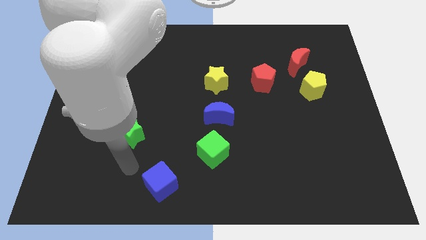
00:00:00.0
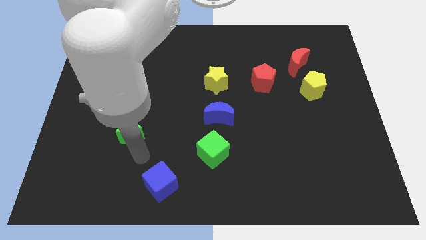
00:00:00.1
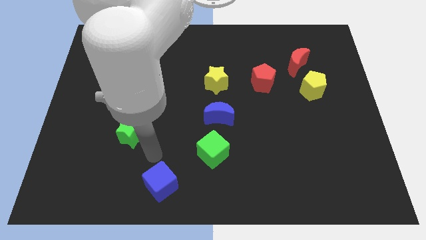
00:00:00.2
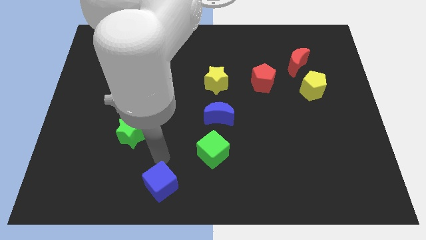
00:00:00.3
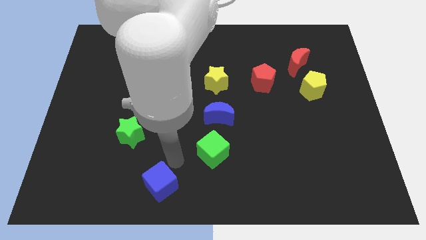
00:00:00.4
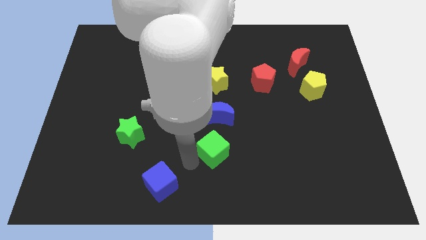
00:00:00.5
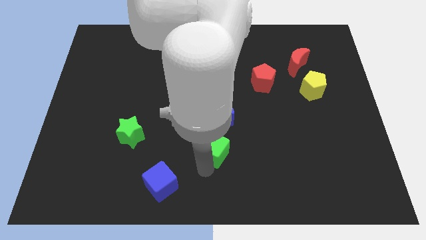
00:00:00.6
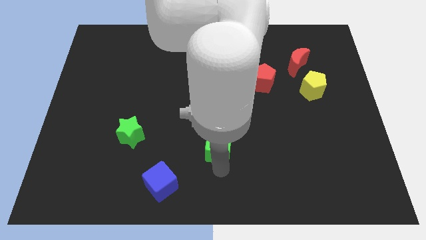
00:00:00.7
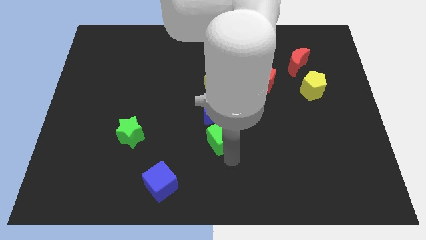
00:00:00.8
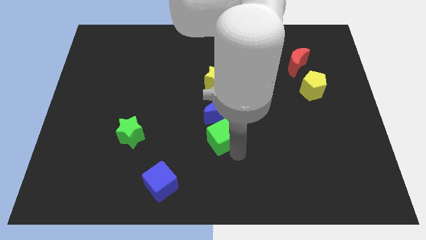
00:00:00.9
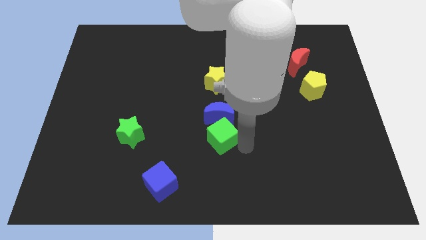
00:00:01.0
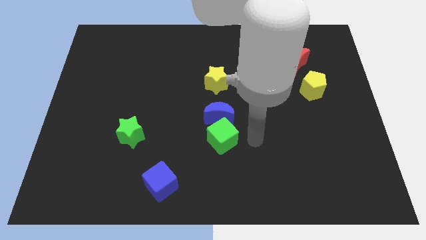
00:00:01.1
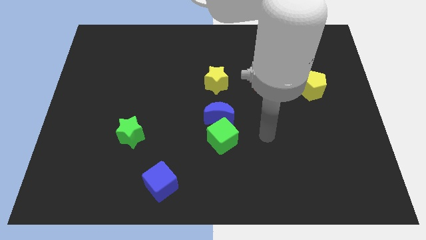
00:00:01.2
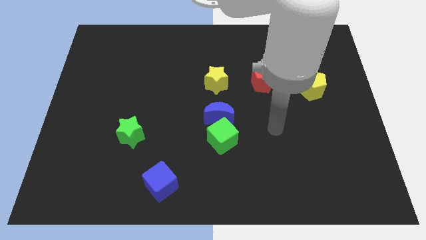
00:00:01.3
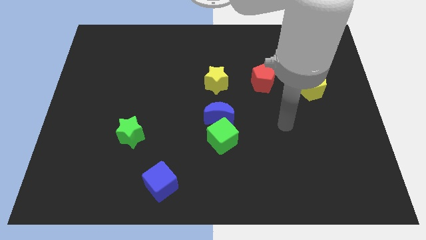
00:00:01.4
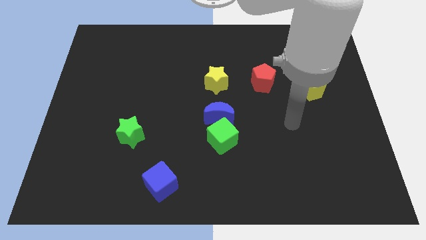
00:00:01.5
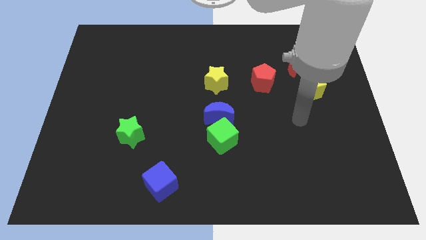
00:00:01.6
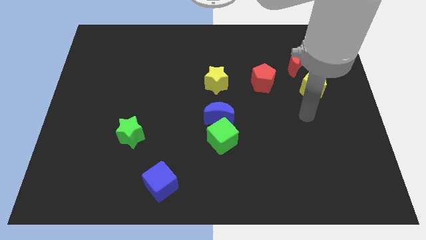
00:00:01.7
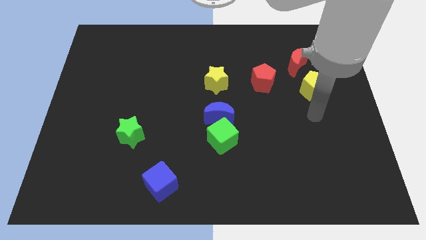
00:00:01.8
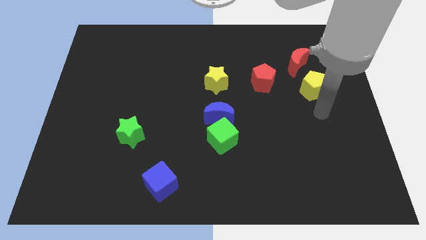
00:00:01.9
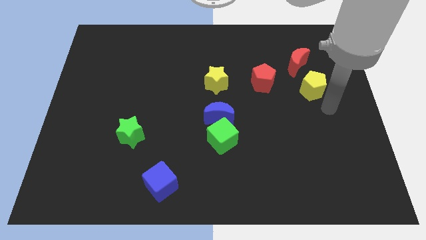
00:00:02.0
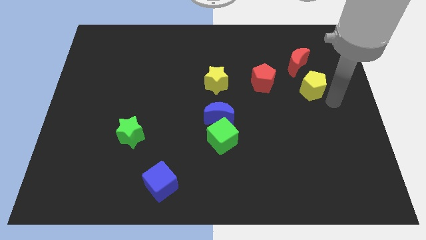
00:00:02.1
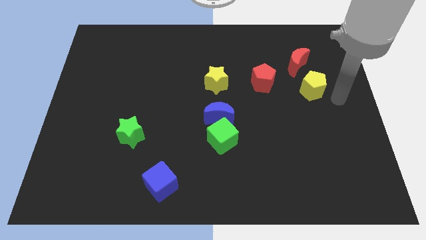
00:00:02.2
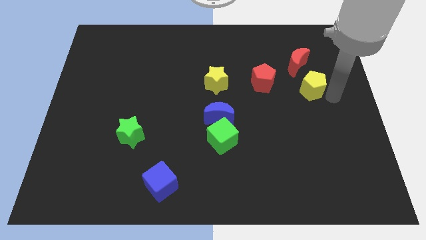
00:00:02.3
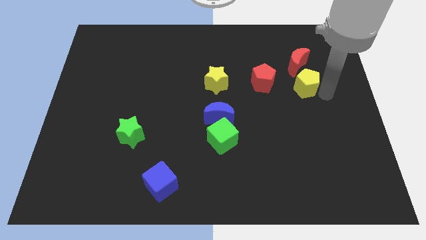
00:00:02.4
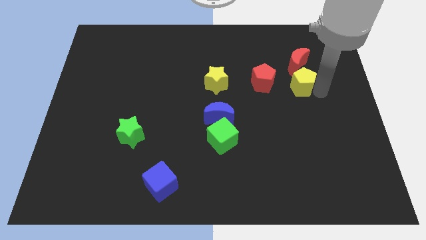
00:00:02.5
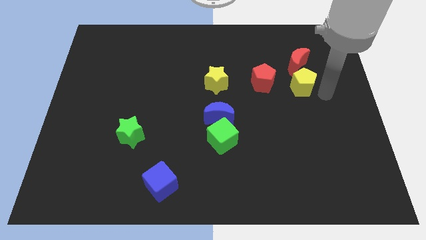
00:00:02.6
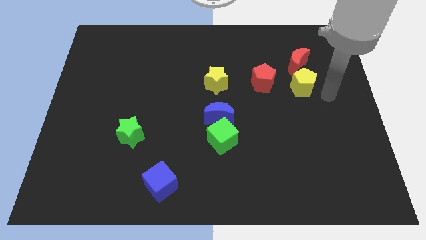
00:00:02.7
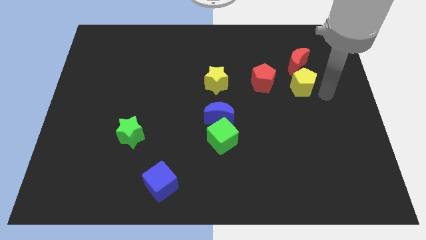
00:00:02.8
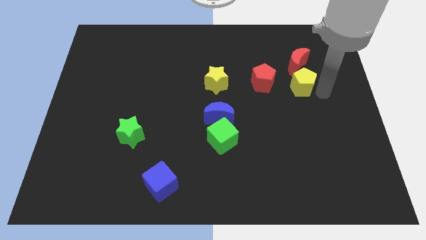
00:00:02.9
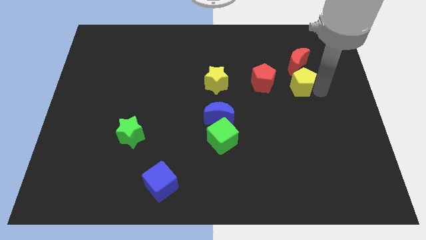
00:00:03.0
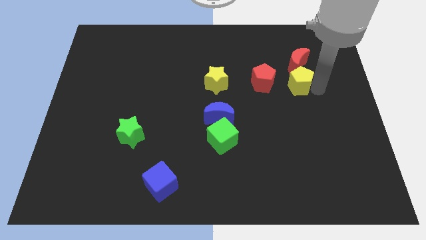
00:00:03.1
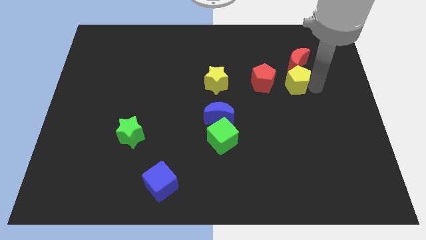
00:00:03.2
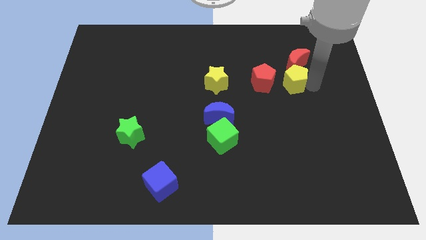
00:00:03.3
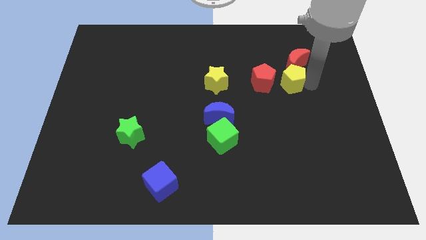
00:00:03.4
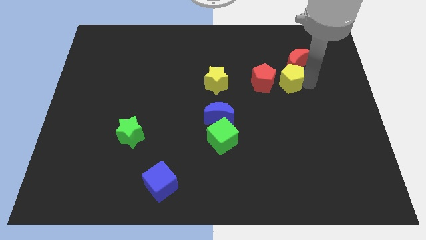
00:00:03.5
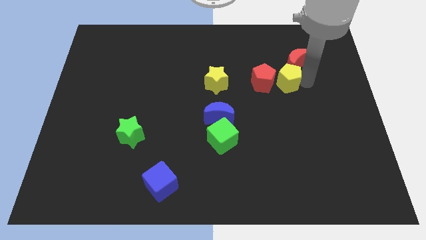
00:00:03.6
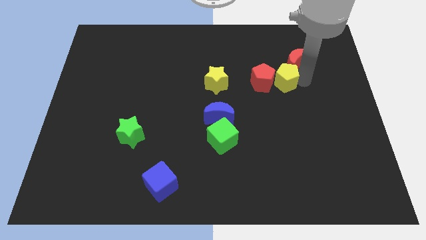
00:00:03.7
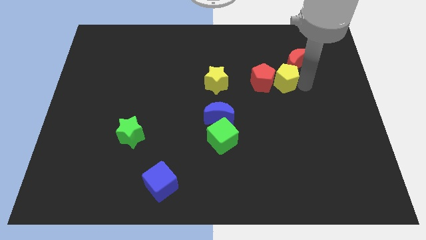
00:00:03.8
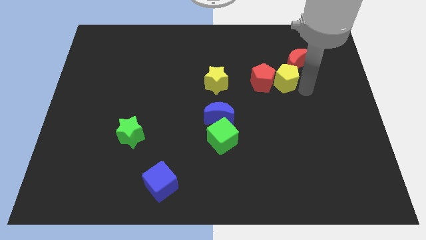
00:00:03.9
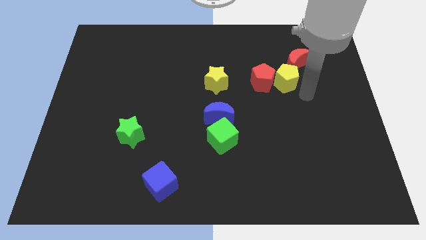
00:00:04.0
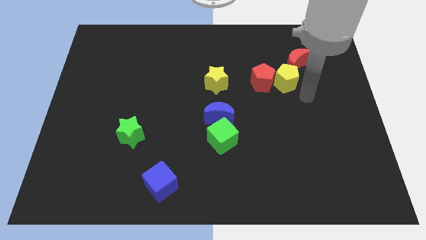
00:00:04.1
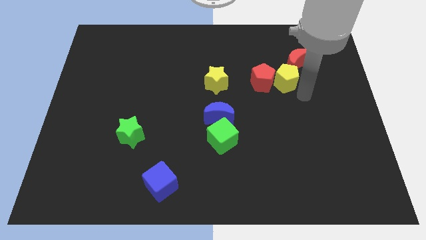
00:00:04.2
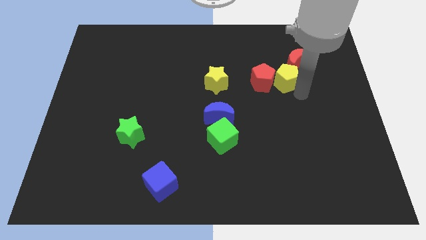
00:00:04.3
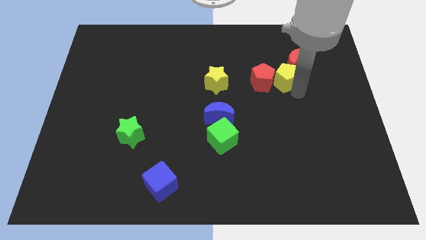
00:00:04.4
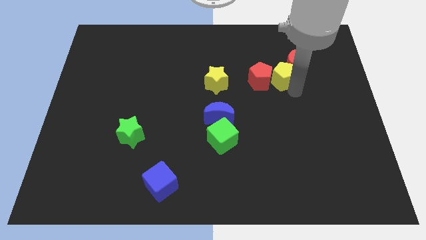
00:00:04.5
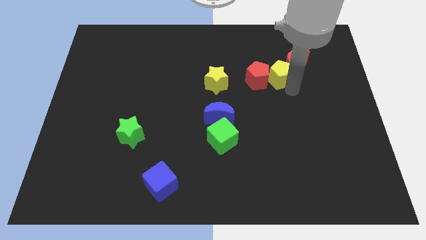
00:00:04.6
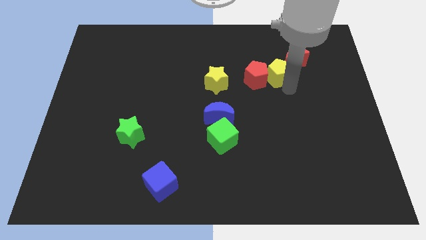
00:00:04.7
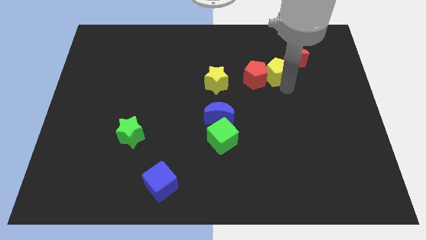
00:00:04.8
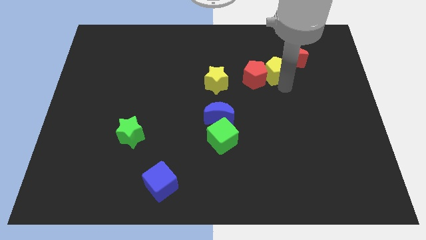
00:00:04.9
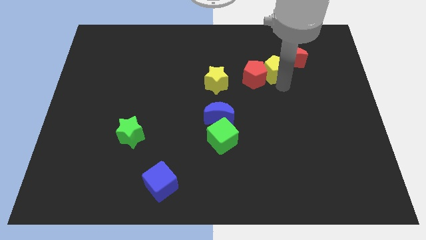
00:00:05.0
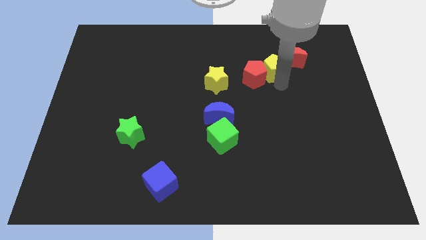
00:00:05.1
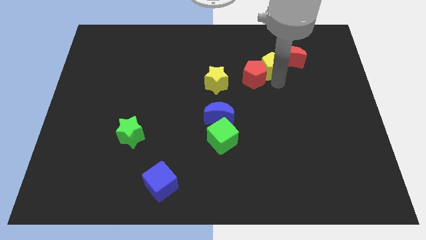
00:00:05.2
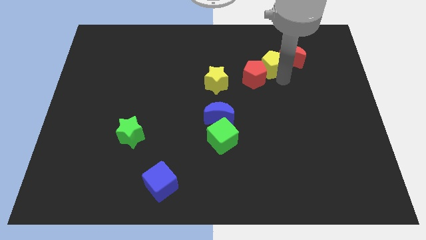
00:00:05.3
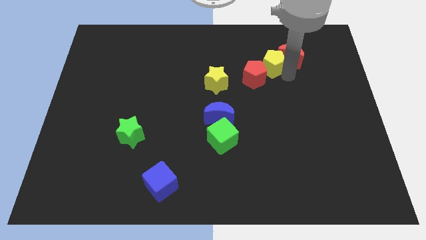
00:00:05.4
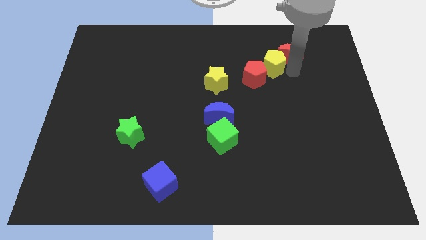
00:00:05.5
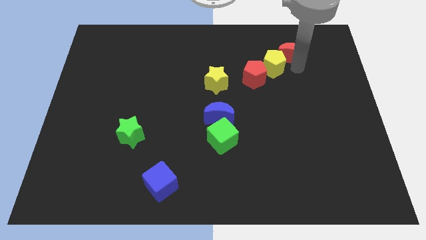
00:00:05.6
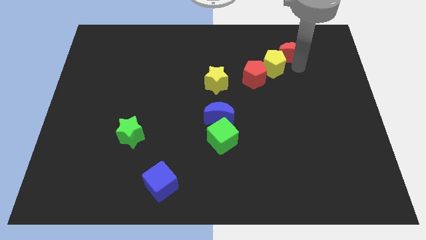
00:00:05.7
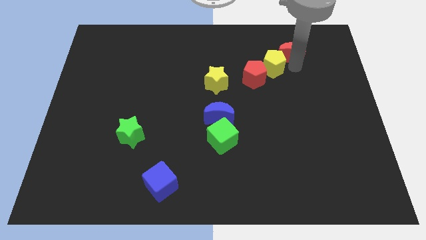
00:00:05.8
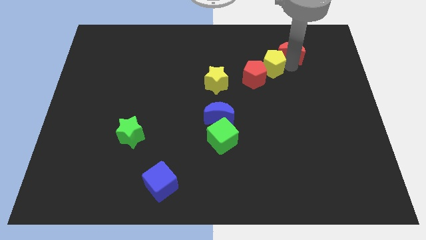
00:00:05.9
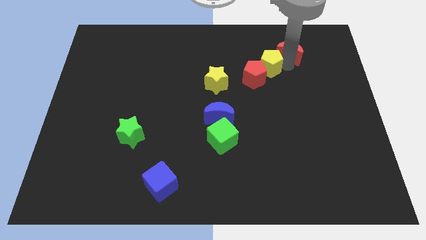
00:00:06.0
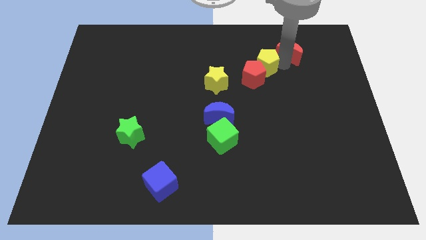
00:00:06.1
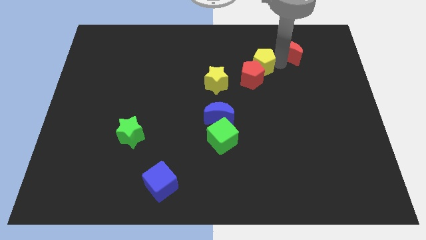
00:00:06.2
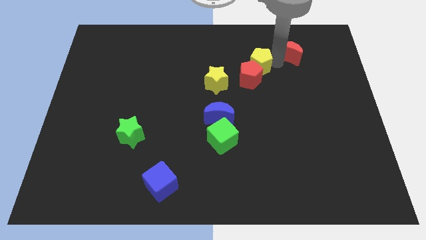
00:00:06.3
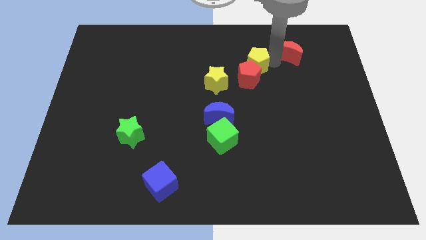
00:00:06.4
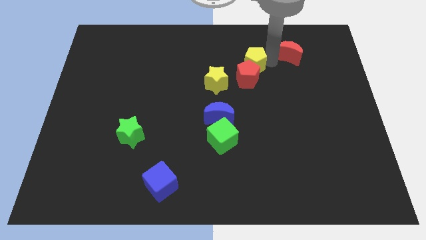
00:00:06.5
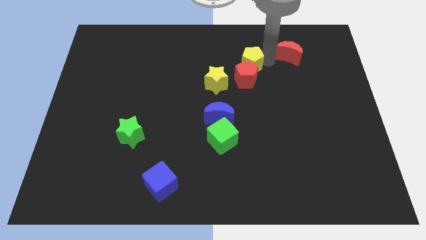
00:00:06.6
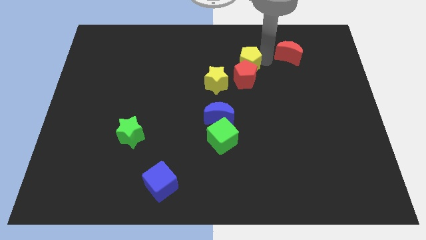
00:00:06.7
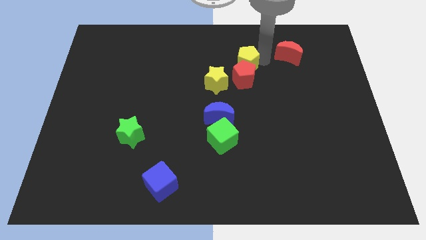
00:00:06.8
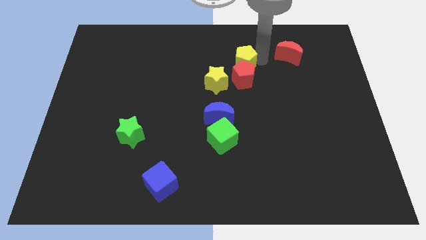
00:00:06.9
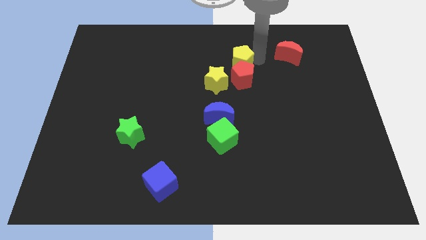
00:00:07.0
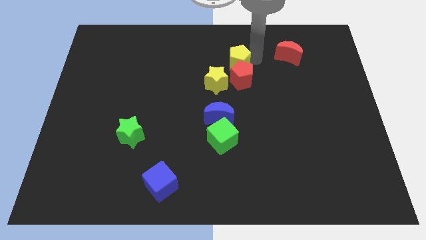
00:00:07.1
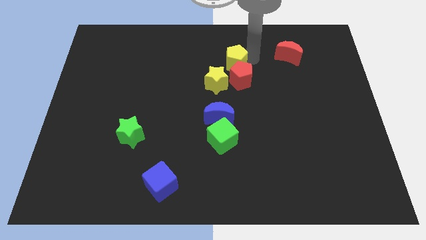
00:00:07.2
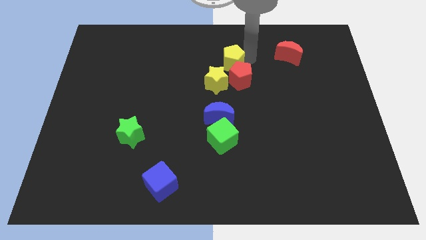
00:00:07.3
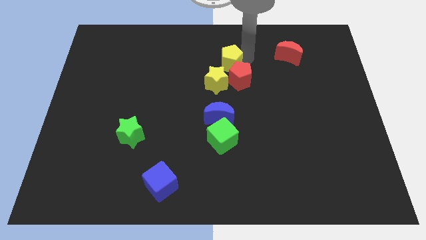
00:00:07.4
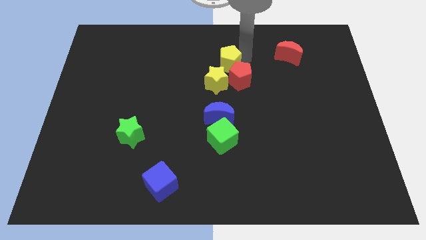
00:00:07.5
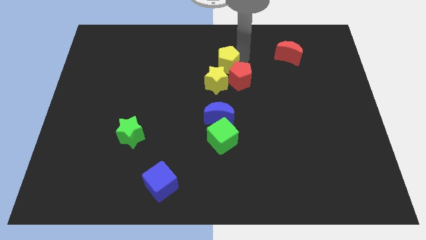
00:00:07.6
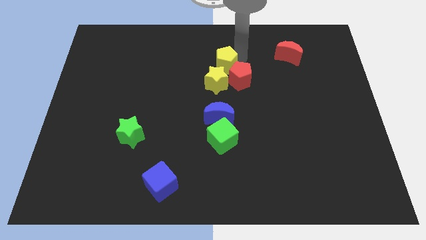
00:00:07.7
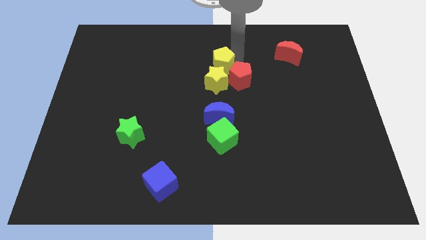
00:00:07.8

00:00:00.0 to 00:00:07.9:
move the yellow pentagon to the left side of the red pentagon
